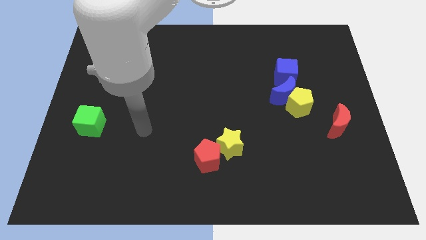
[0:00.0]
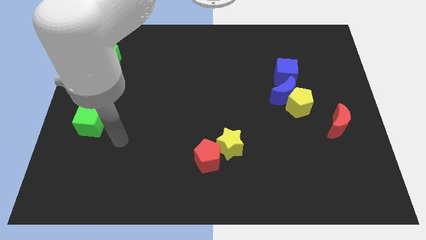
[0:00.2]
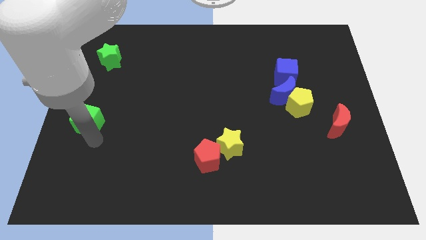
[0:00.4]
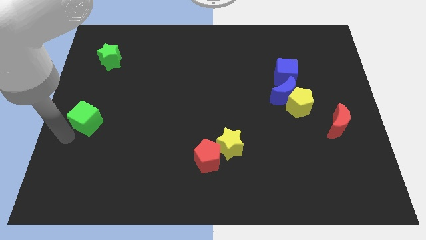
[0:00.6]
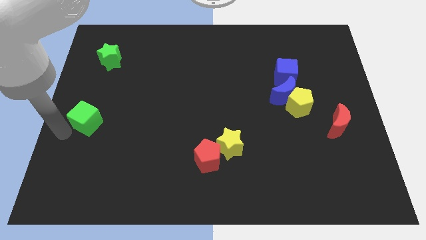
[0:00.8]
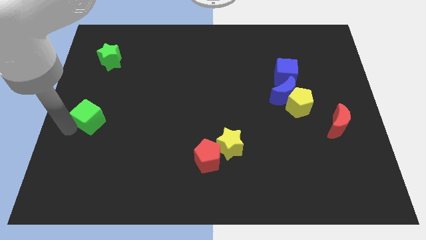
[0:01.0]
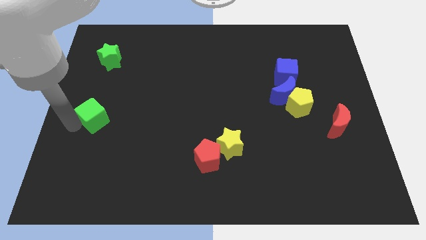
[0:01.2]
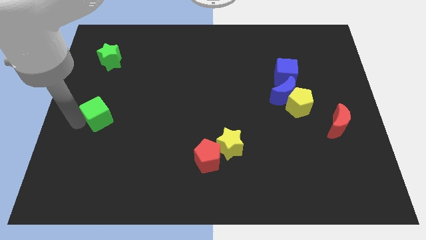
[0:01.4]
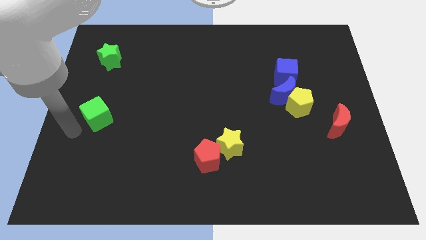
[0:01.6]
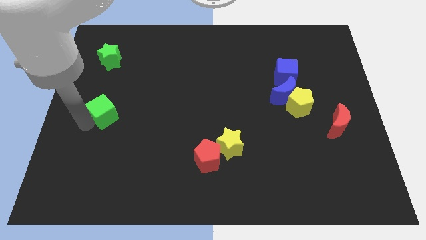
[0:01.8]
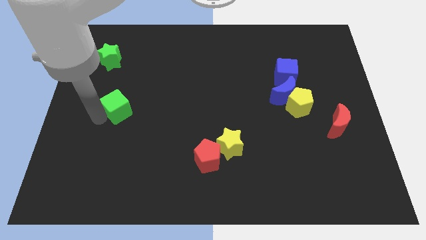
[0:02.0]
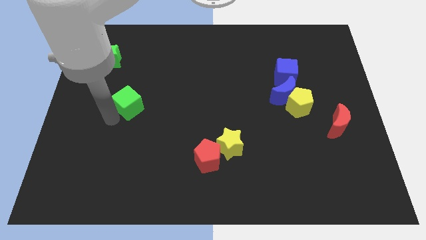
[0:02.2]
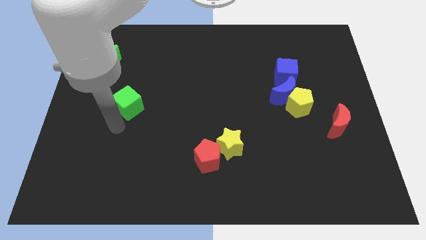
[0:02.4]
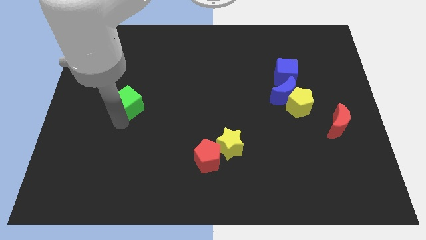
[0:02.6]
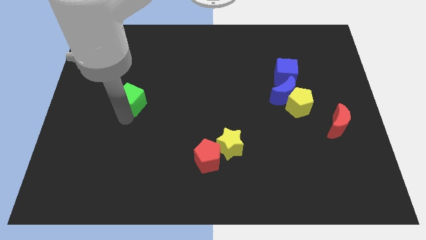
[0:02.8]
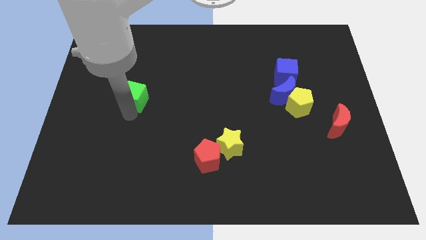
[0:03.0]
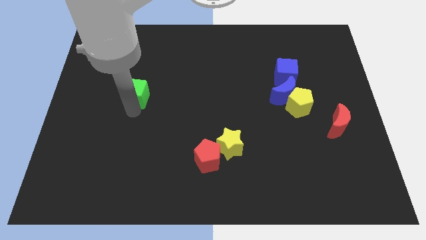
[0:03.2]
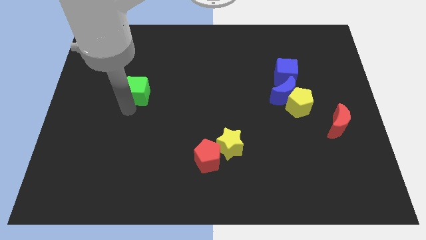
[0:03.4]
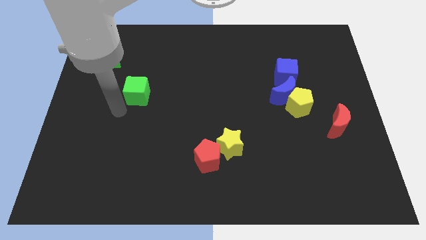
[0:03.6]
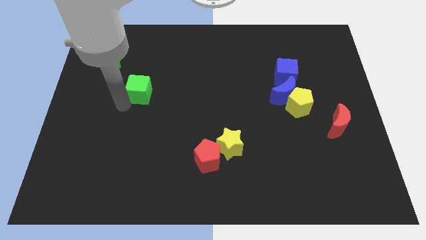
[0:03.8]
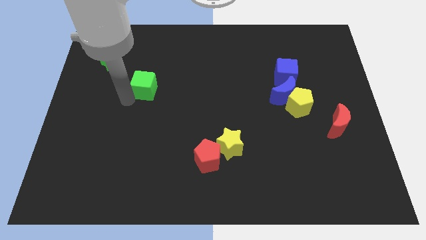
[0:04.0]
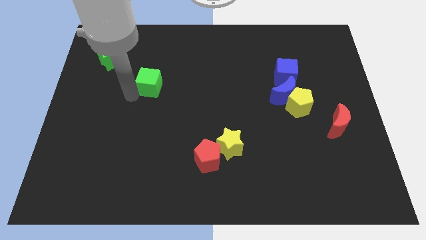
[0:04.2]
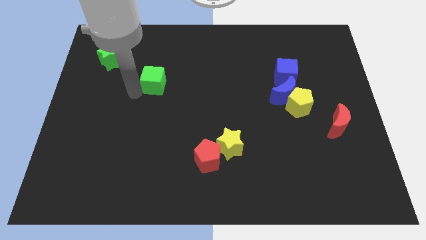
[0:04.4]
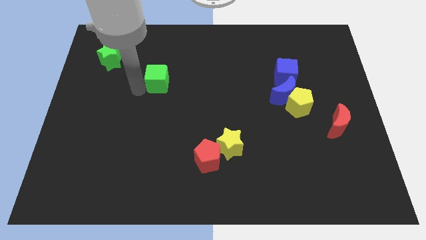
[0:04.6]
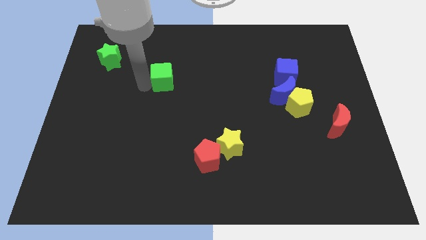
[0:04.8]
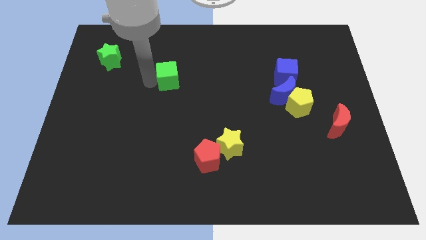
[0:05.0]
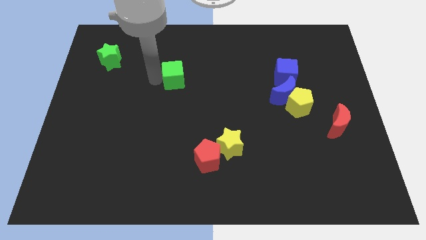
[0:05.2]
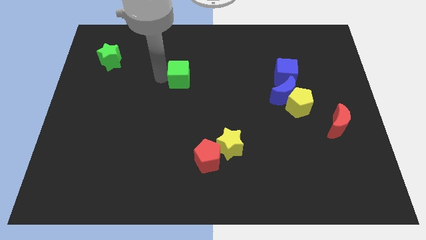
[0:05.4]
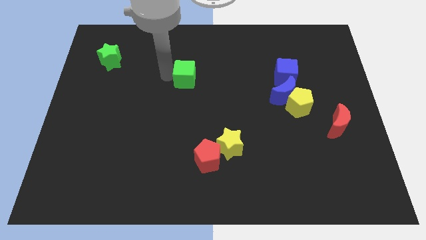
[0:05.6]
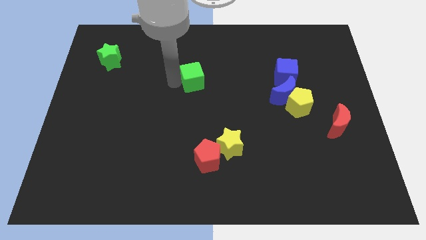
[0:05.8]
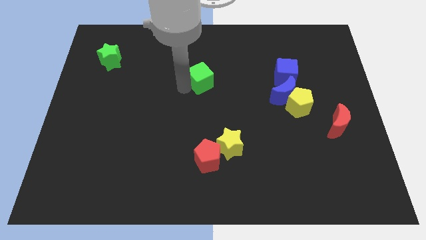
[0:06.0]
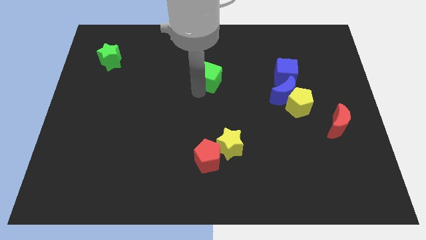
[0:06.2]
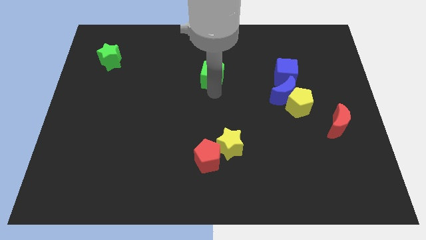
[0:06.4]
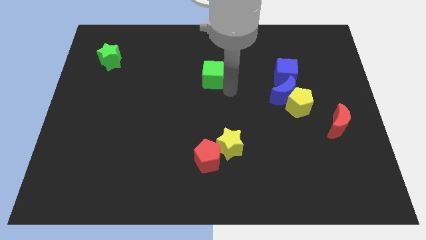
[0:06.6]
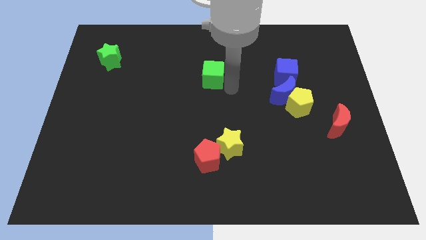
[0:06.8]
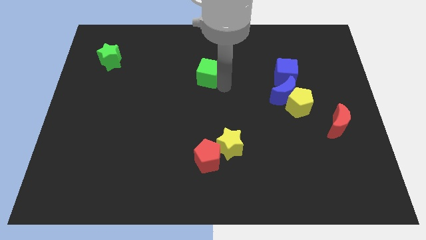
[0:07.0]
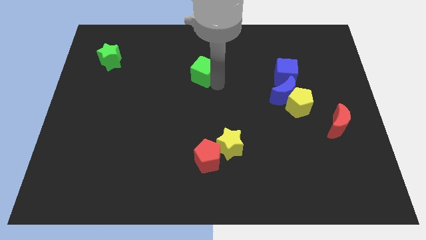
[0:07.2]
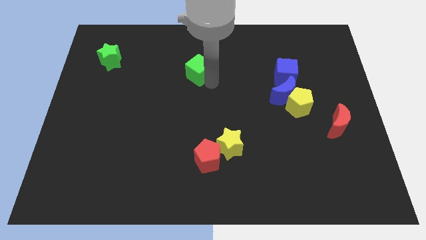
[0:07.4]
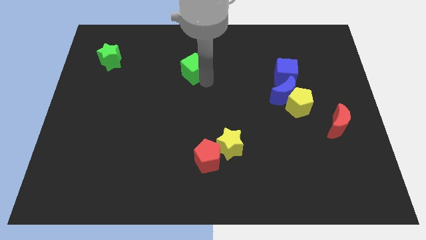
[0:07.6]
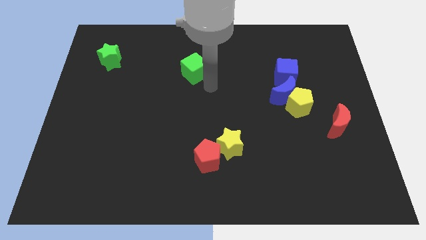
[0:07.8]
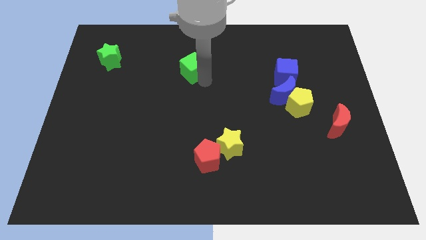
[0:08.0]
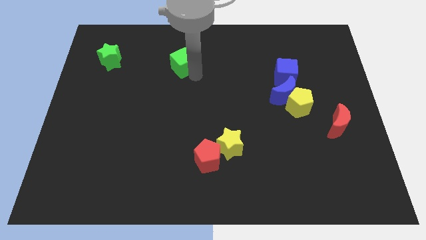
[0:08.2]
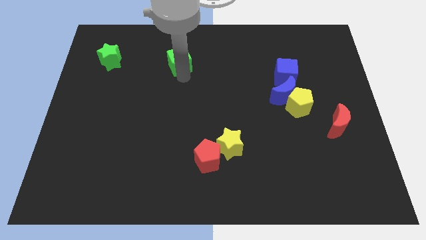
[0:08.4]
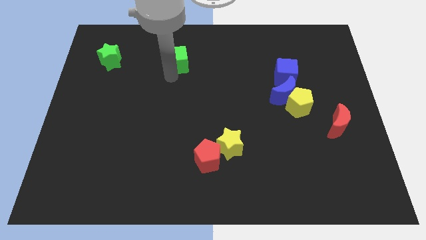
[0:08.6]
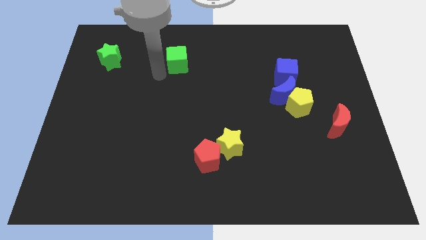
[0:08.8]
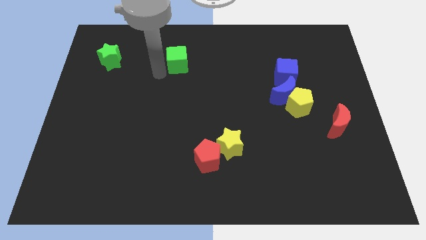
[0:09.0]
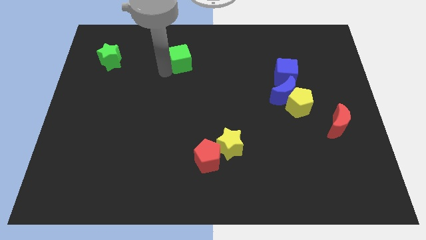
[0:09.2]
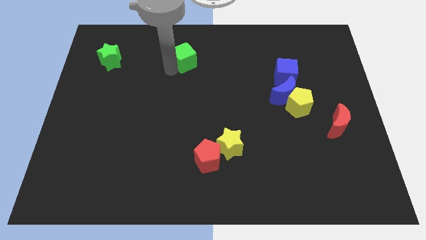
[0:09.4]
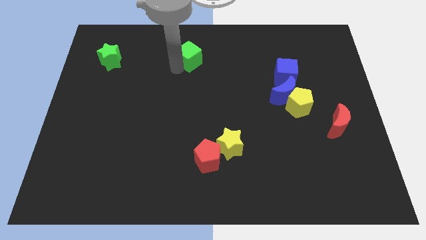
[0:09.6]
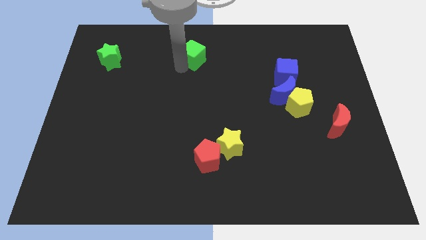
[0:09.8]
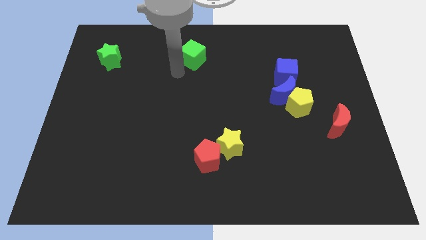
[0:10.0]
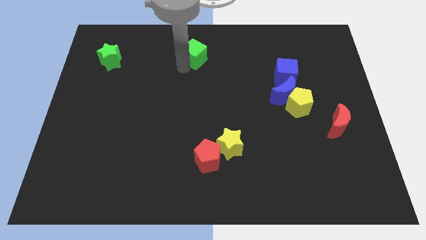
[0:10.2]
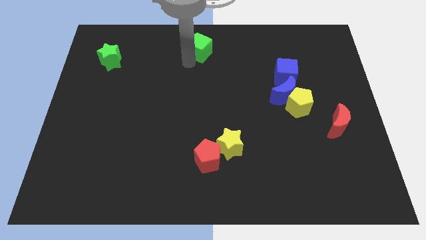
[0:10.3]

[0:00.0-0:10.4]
slide the green cube to the towards your base

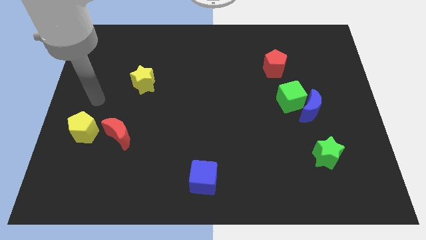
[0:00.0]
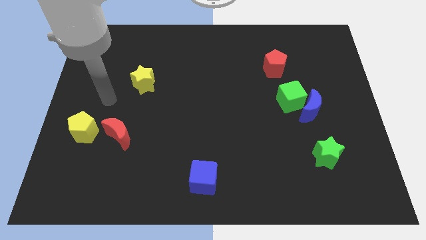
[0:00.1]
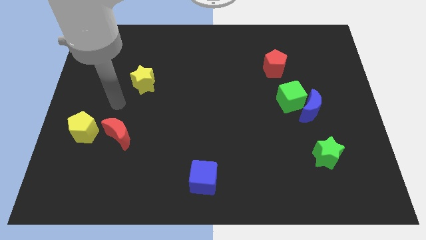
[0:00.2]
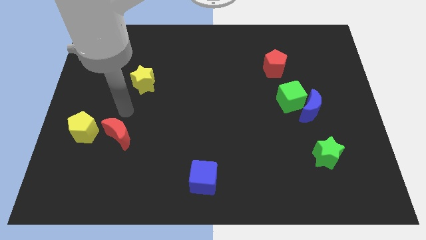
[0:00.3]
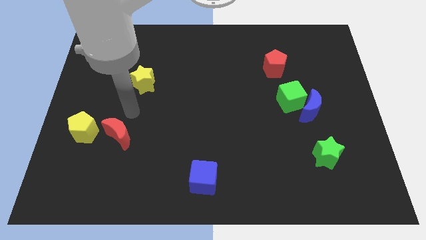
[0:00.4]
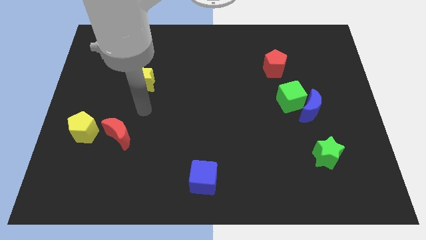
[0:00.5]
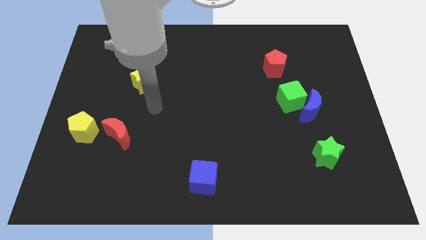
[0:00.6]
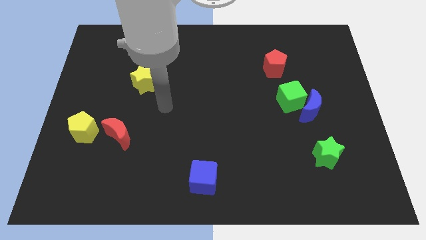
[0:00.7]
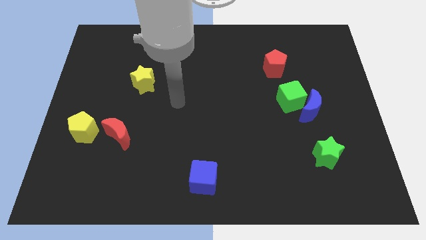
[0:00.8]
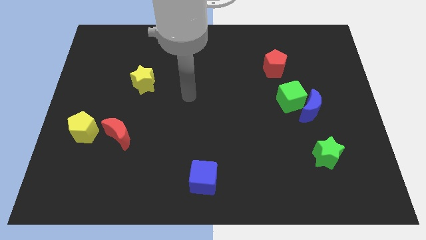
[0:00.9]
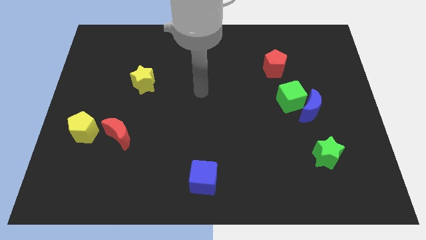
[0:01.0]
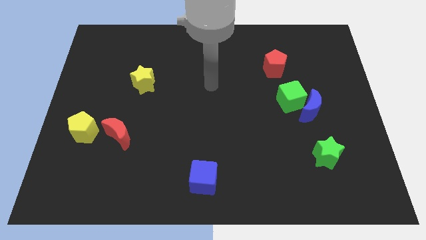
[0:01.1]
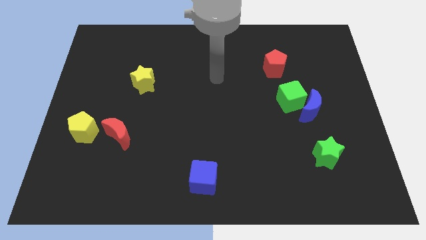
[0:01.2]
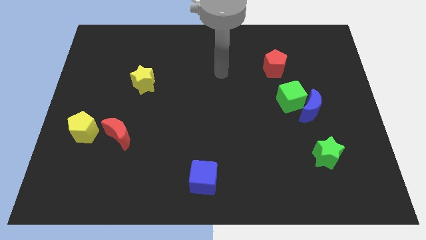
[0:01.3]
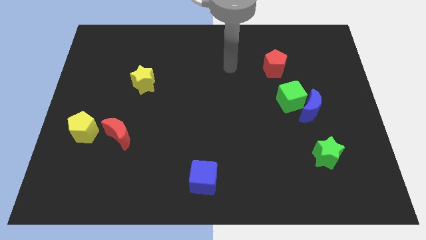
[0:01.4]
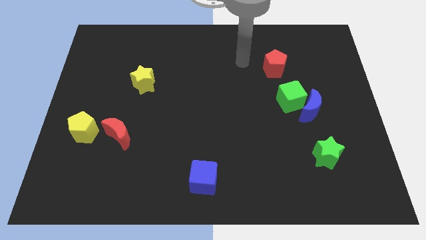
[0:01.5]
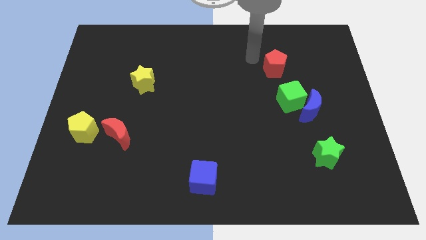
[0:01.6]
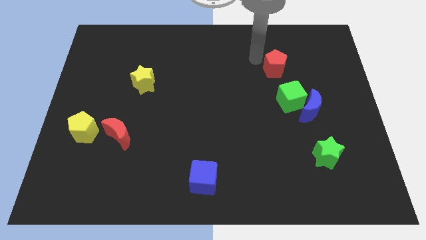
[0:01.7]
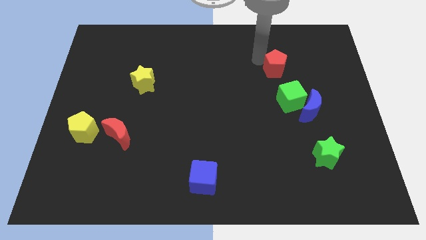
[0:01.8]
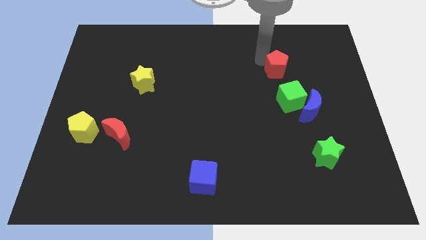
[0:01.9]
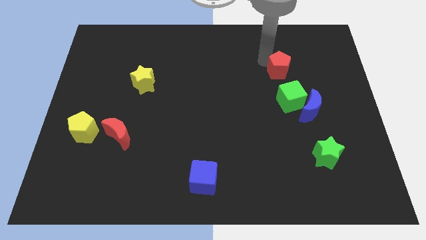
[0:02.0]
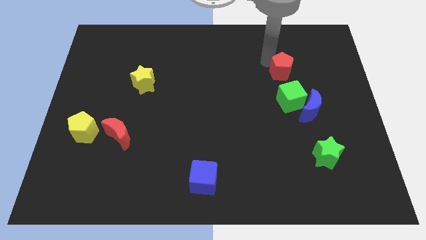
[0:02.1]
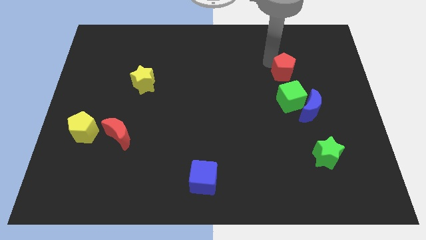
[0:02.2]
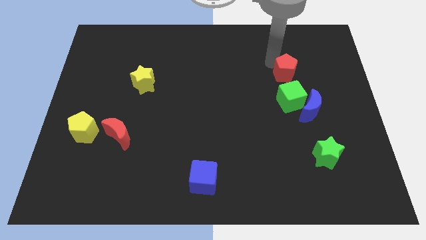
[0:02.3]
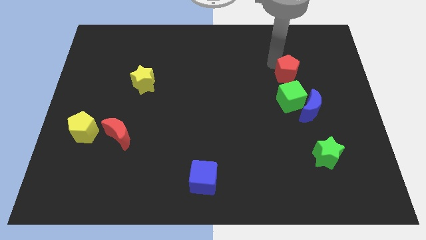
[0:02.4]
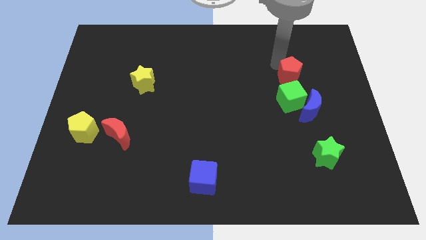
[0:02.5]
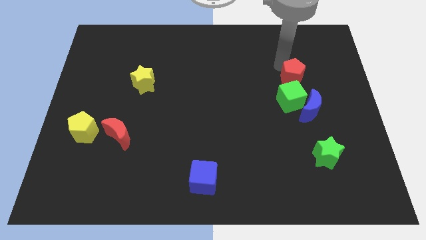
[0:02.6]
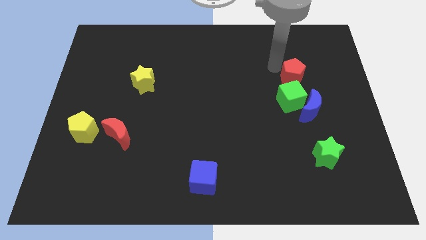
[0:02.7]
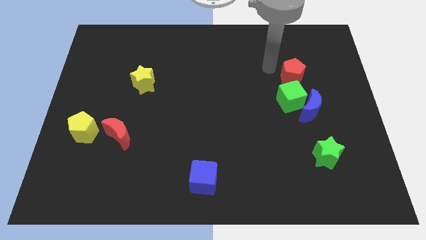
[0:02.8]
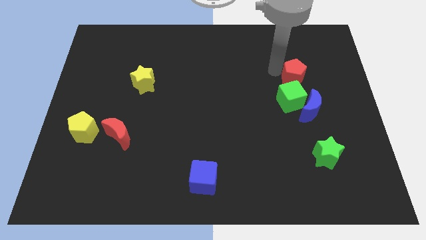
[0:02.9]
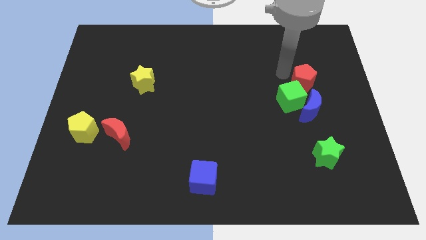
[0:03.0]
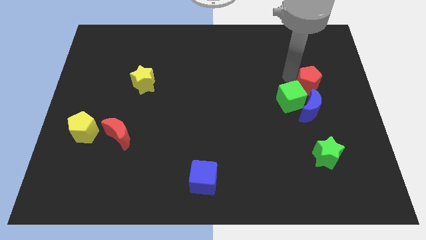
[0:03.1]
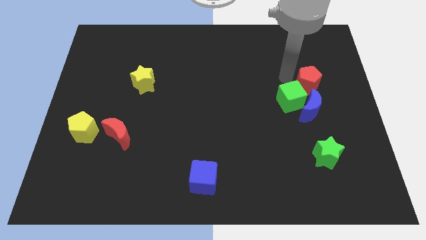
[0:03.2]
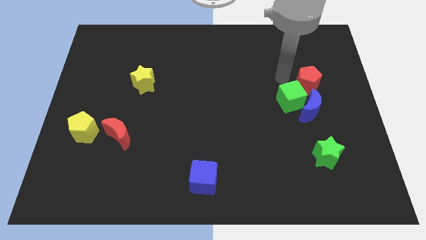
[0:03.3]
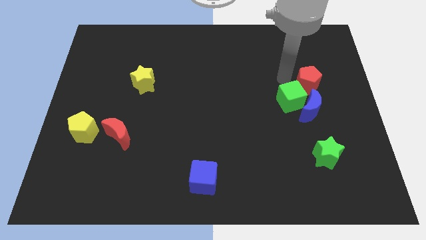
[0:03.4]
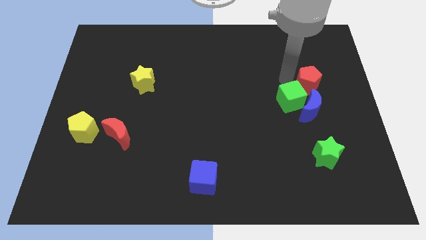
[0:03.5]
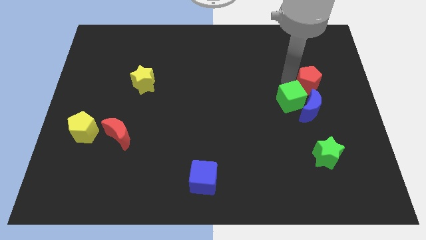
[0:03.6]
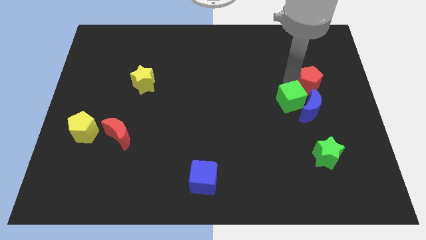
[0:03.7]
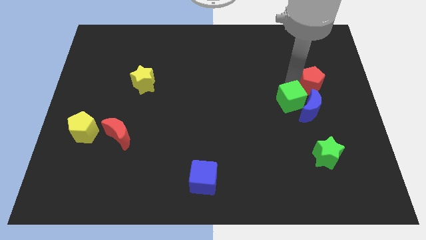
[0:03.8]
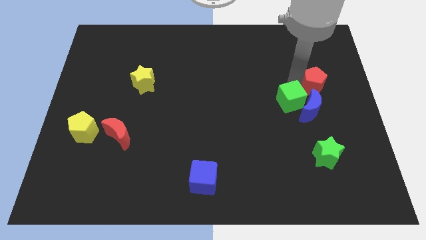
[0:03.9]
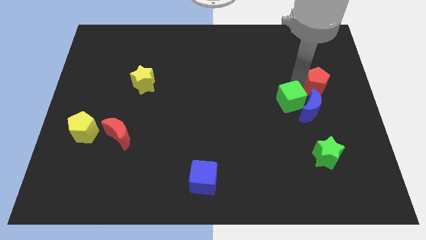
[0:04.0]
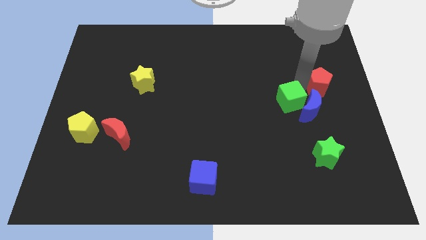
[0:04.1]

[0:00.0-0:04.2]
put the red pentagon to the center right
